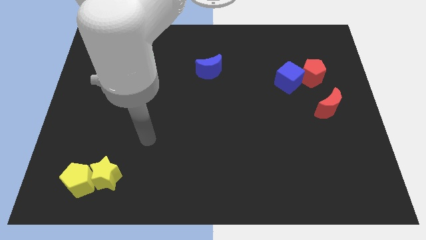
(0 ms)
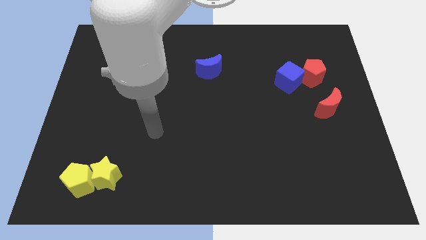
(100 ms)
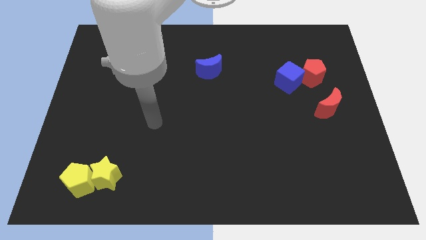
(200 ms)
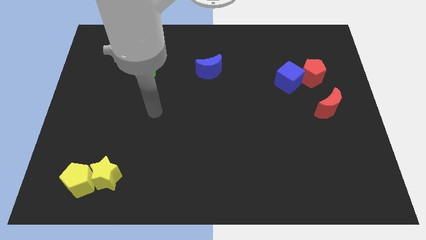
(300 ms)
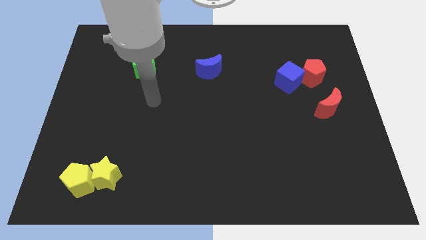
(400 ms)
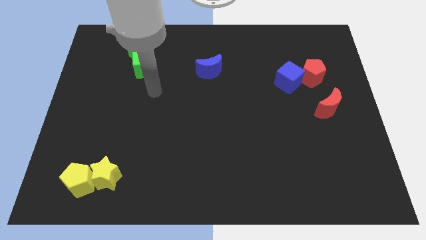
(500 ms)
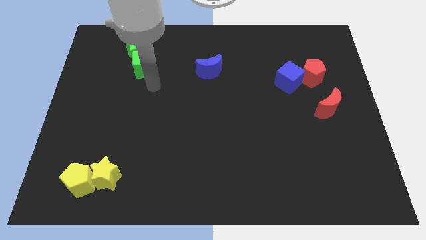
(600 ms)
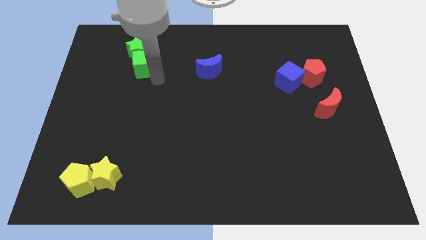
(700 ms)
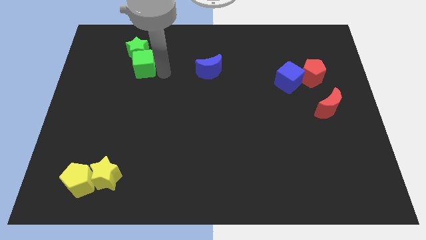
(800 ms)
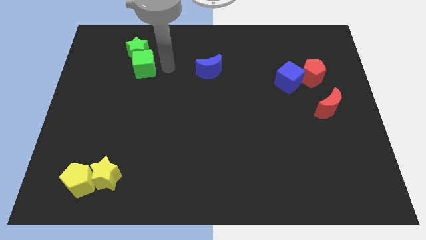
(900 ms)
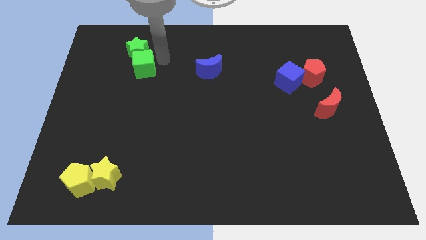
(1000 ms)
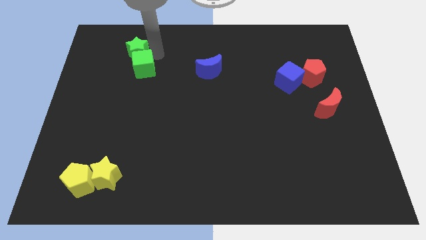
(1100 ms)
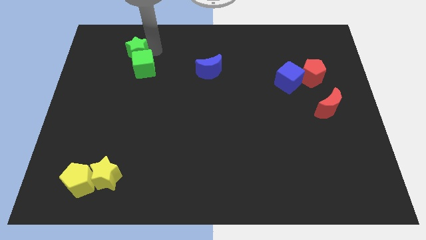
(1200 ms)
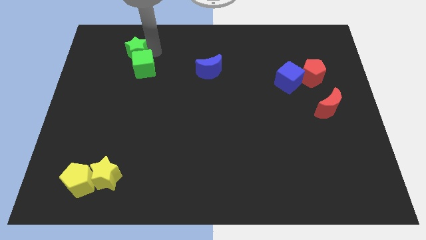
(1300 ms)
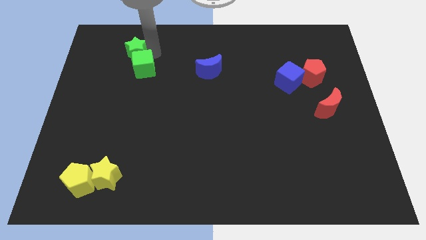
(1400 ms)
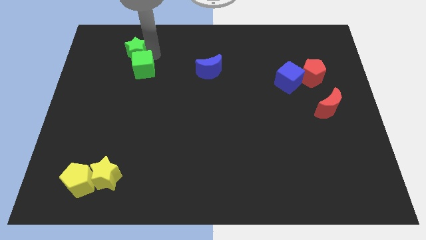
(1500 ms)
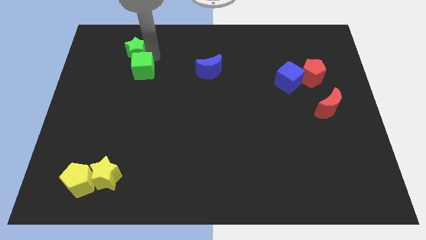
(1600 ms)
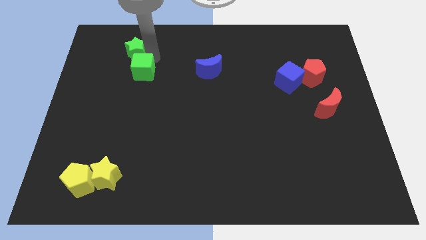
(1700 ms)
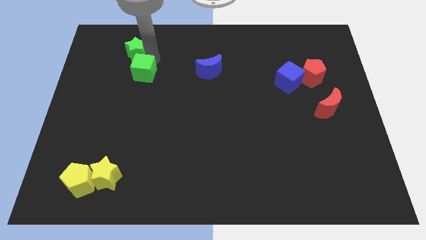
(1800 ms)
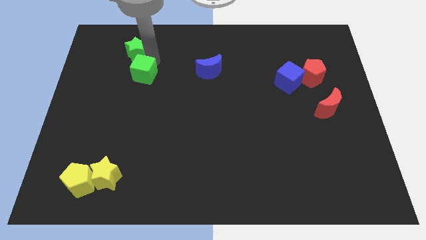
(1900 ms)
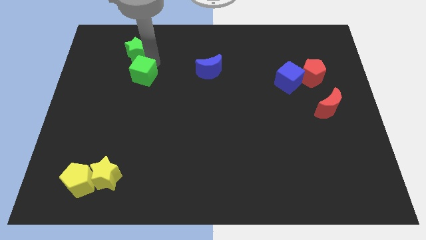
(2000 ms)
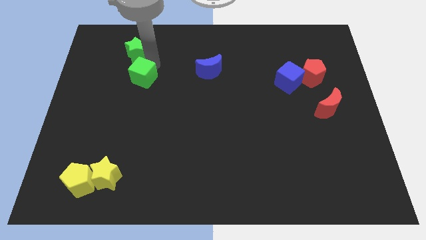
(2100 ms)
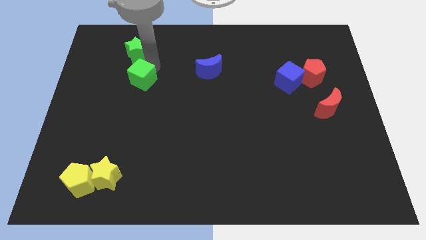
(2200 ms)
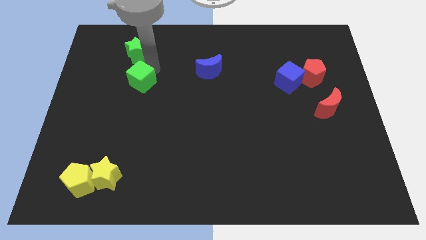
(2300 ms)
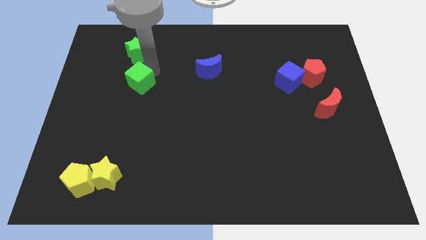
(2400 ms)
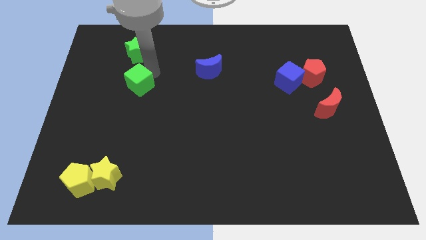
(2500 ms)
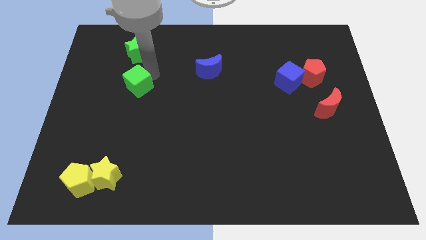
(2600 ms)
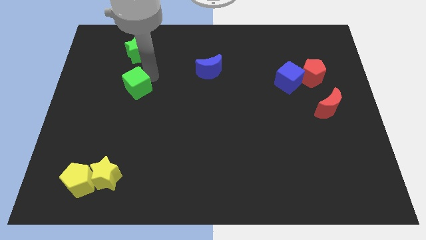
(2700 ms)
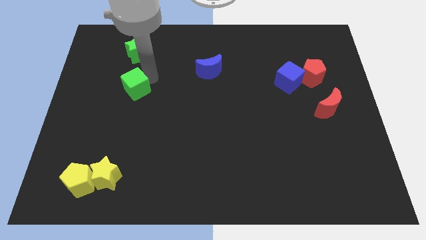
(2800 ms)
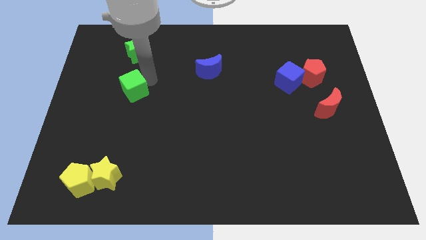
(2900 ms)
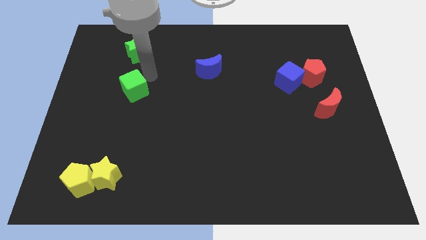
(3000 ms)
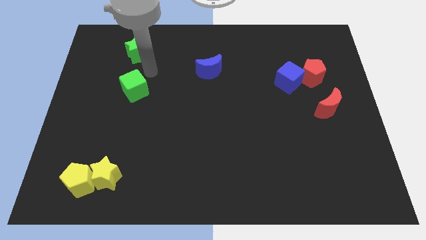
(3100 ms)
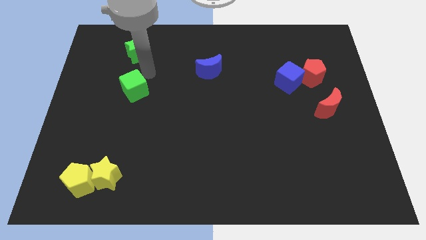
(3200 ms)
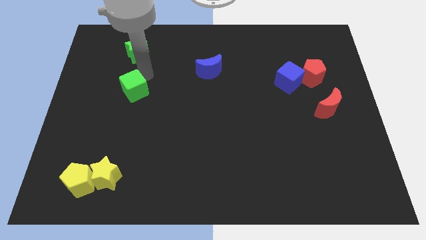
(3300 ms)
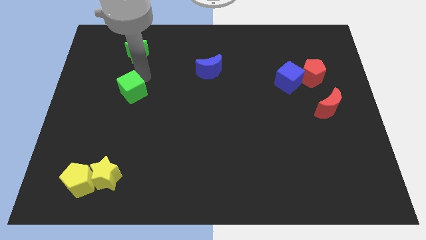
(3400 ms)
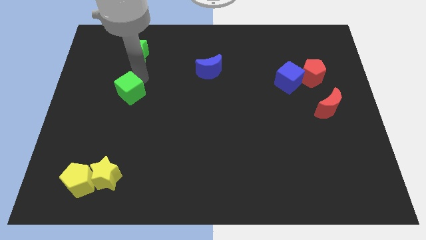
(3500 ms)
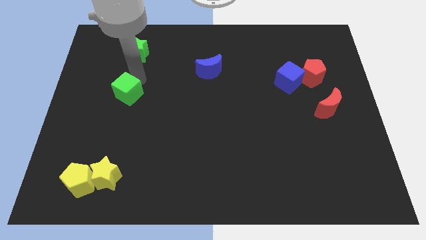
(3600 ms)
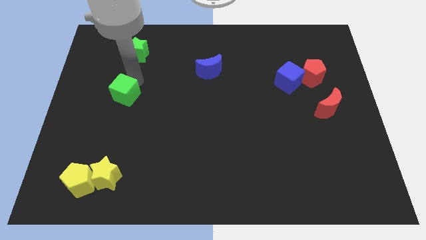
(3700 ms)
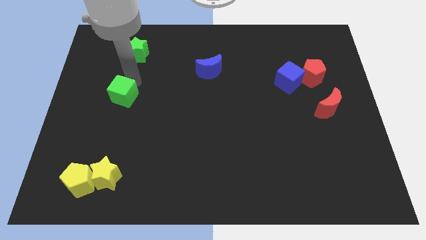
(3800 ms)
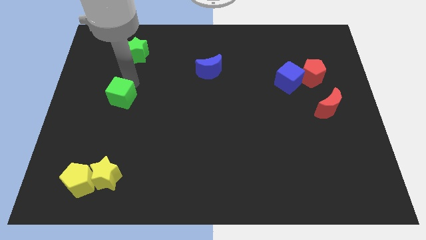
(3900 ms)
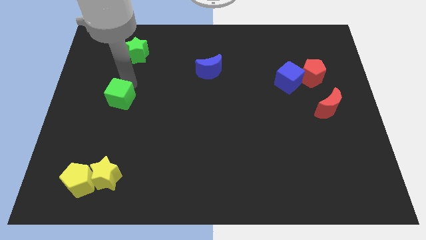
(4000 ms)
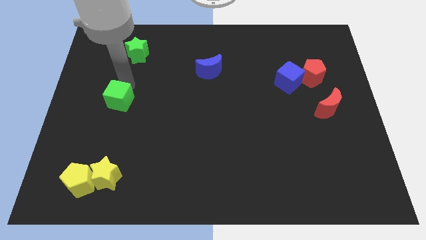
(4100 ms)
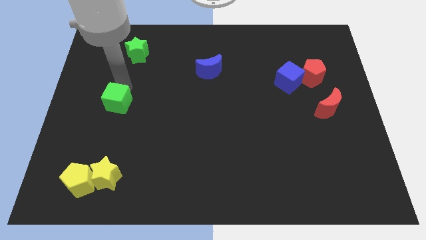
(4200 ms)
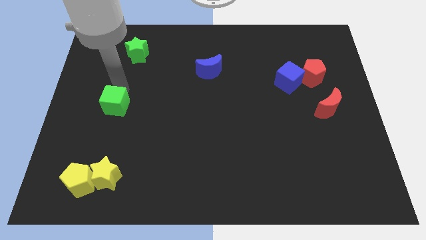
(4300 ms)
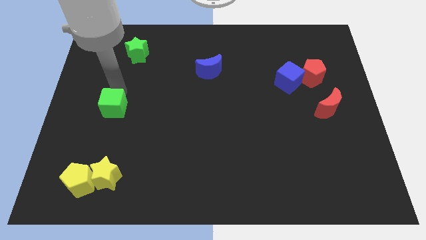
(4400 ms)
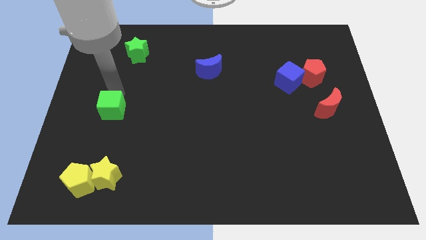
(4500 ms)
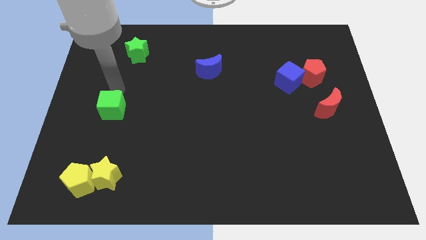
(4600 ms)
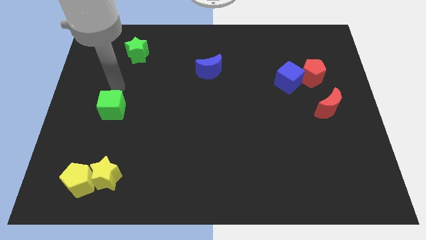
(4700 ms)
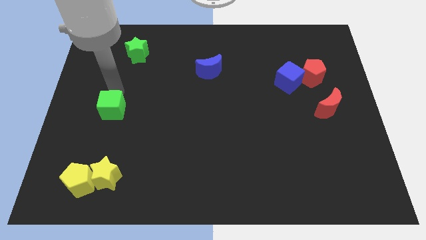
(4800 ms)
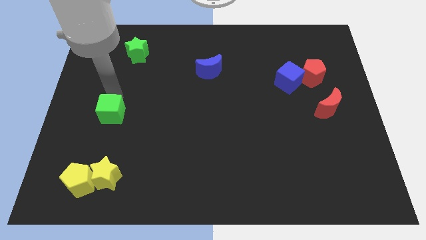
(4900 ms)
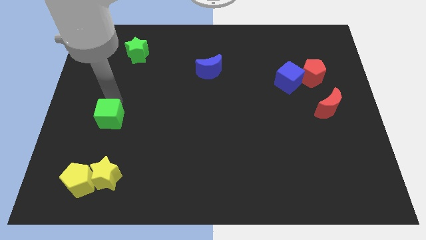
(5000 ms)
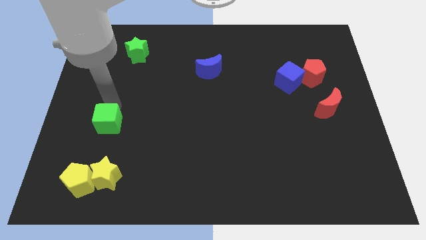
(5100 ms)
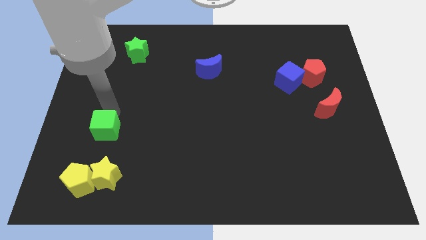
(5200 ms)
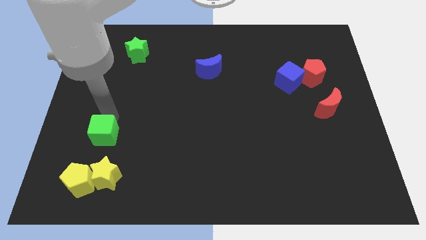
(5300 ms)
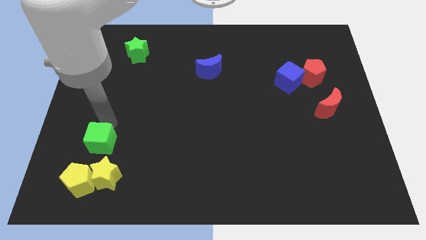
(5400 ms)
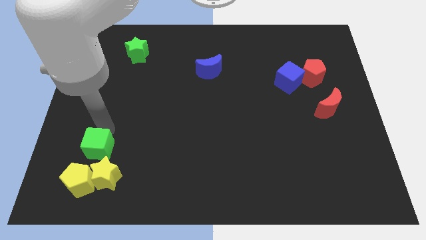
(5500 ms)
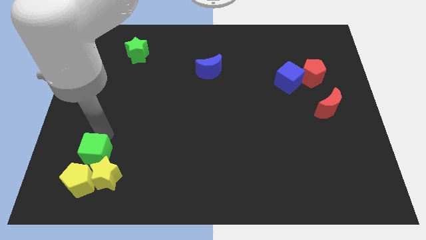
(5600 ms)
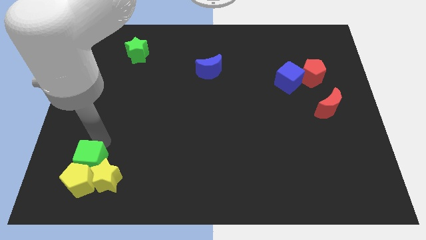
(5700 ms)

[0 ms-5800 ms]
put the green cube next to the yellow pentagon

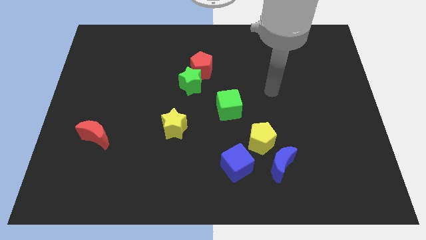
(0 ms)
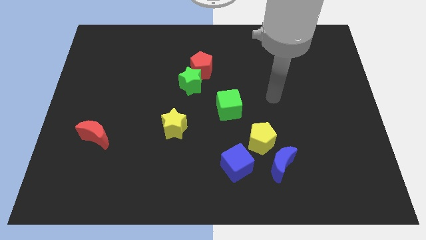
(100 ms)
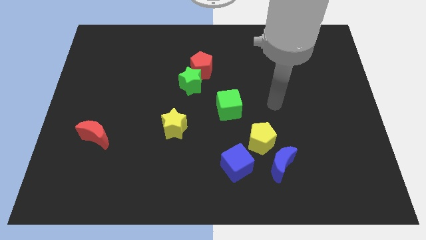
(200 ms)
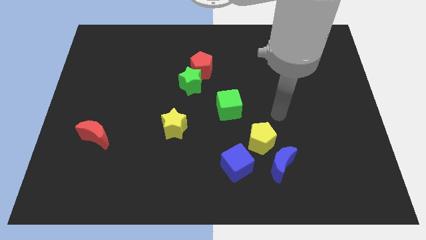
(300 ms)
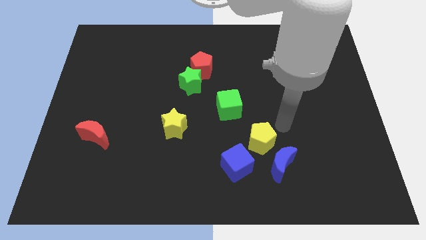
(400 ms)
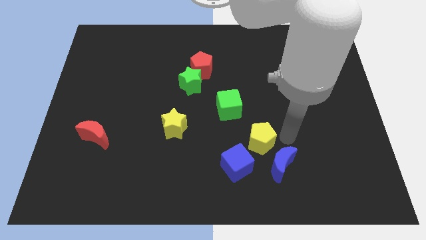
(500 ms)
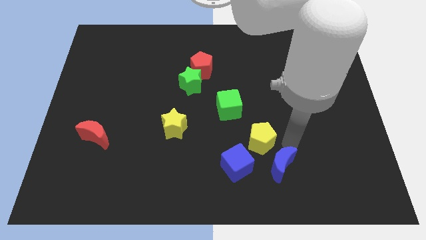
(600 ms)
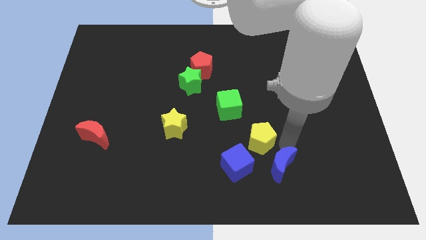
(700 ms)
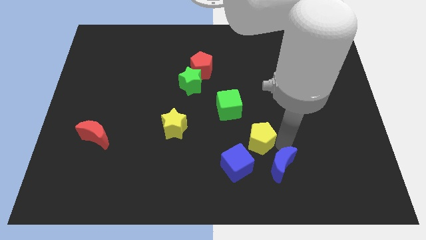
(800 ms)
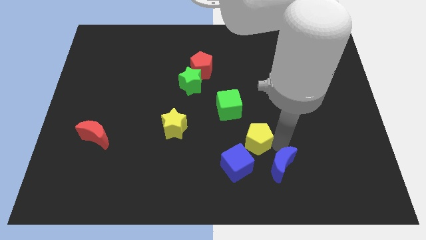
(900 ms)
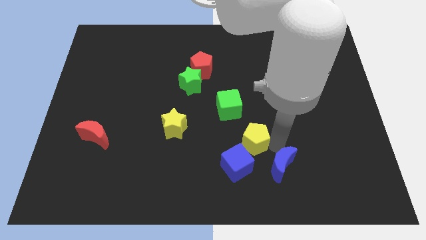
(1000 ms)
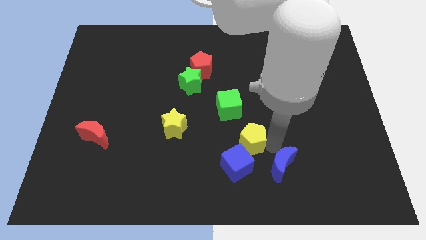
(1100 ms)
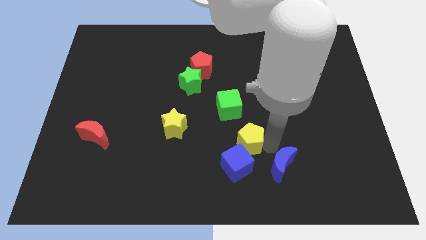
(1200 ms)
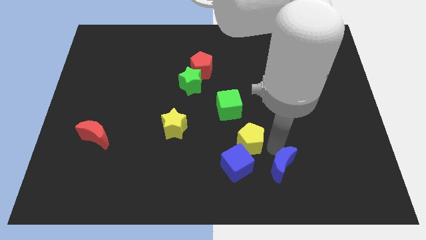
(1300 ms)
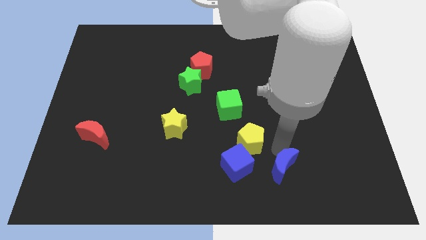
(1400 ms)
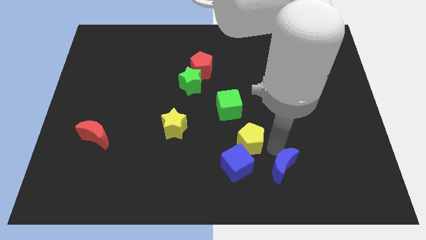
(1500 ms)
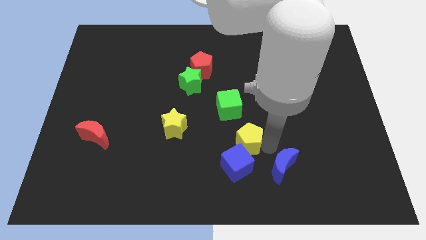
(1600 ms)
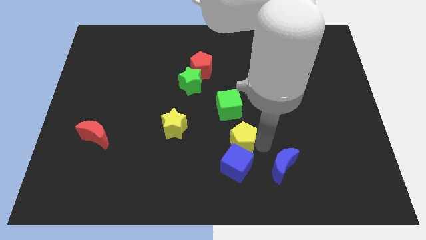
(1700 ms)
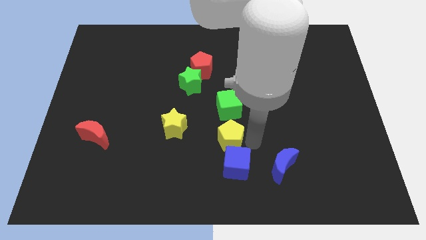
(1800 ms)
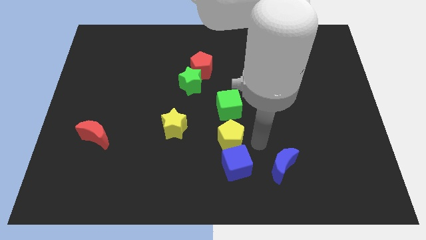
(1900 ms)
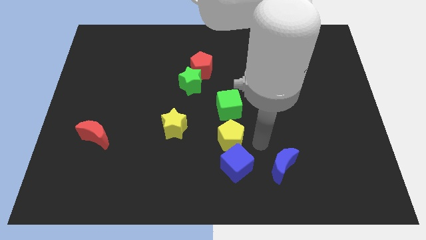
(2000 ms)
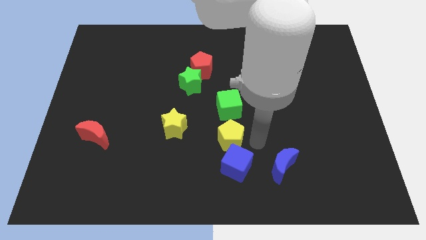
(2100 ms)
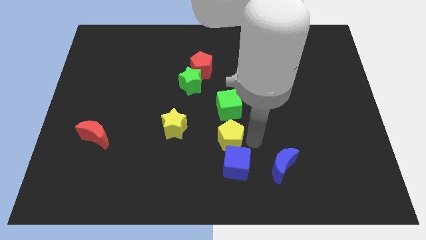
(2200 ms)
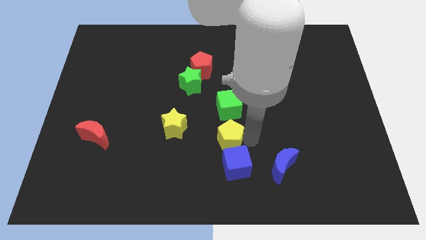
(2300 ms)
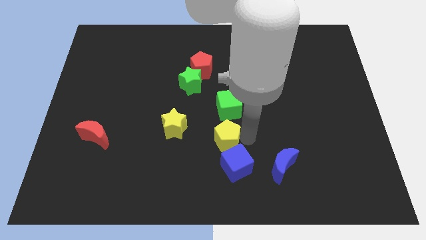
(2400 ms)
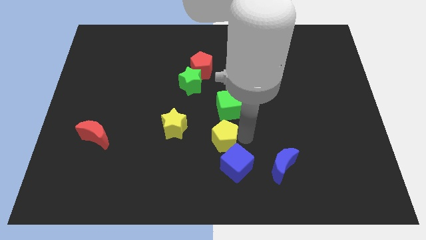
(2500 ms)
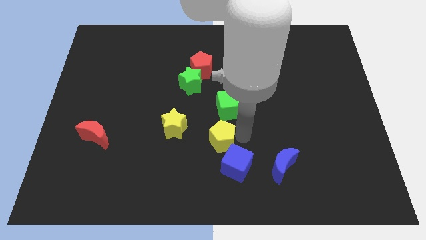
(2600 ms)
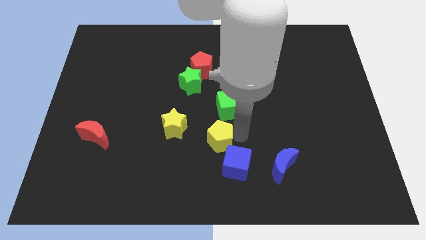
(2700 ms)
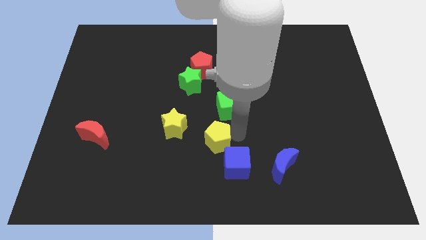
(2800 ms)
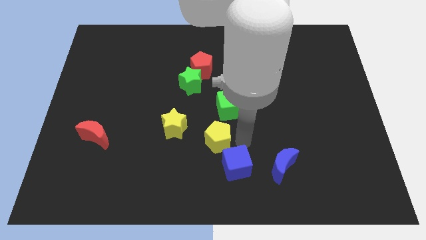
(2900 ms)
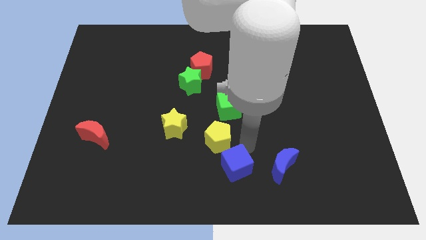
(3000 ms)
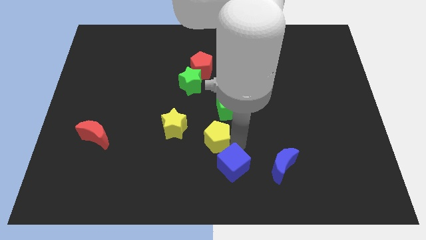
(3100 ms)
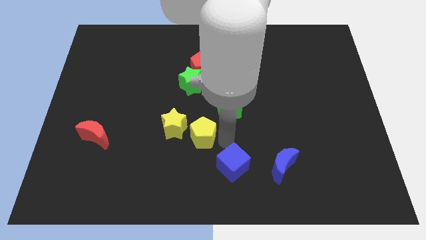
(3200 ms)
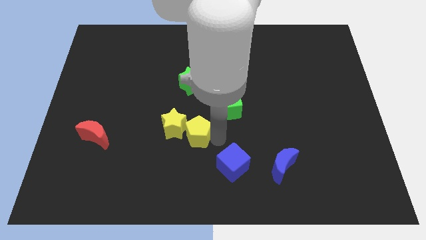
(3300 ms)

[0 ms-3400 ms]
push the yellow pentagon to the yellow star
